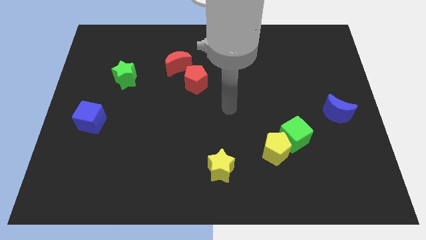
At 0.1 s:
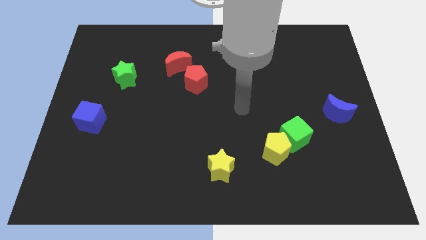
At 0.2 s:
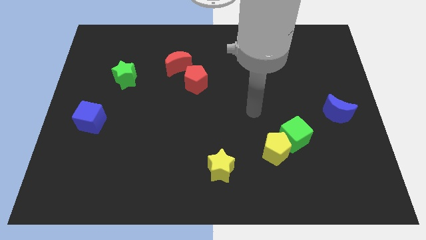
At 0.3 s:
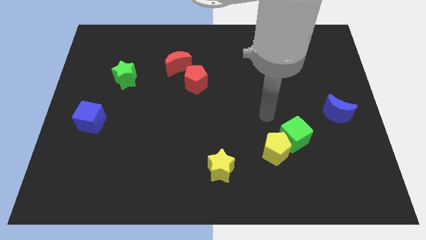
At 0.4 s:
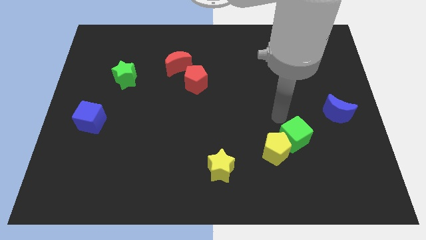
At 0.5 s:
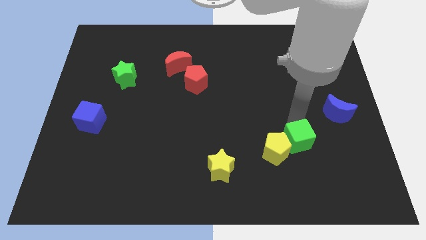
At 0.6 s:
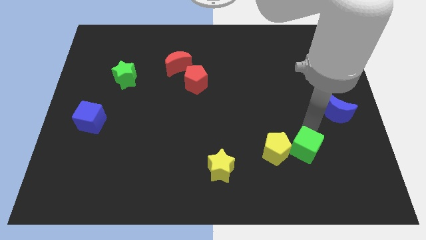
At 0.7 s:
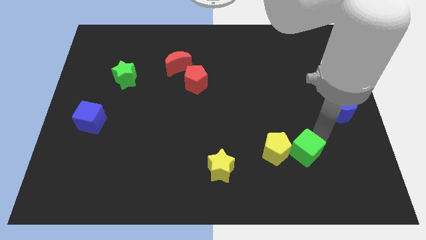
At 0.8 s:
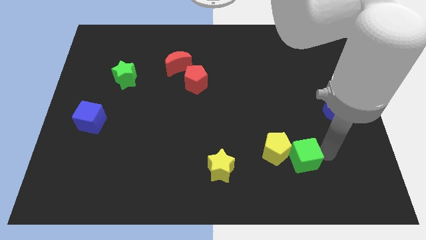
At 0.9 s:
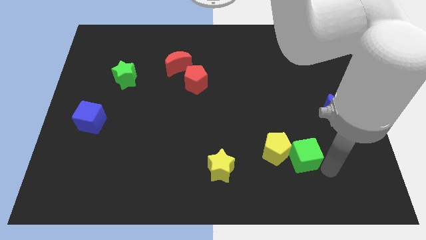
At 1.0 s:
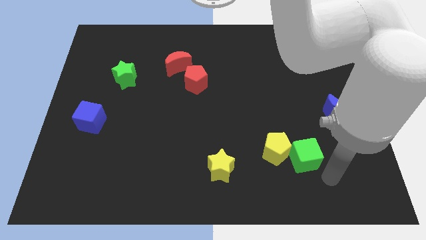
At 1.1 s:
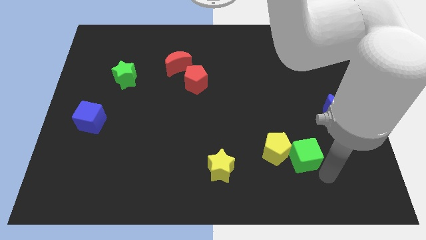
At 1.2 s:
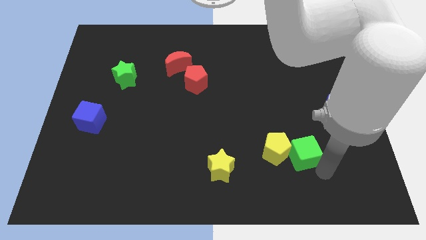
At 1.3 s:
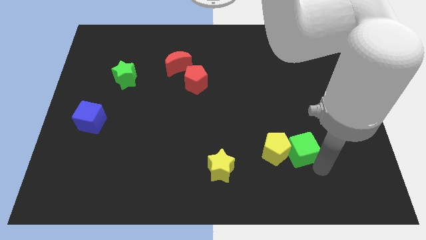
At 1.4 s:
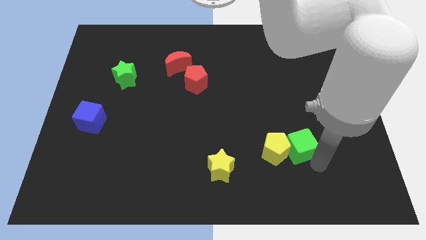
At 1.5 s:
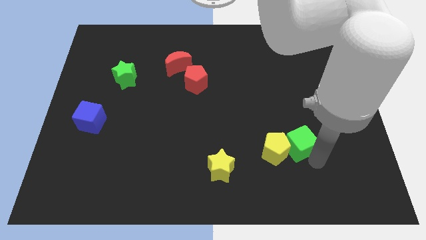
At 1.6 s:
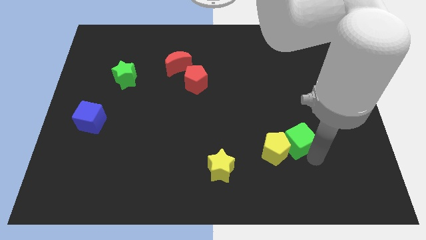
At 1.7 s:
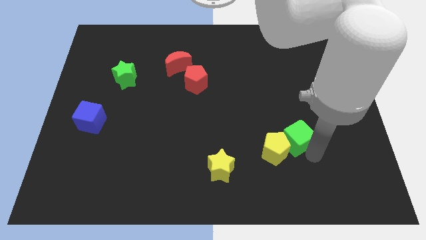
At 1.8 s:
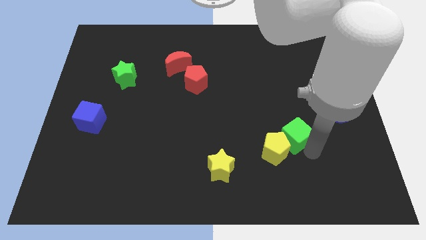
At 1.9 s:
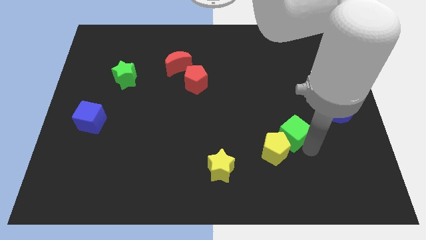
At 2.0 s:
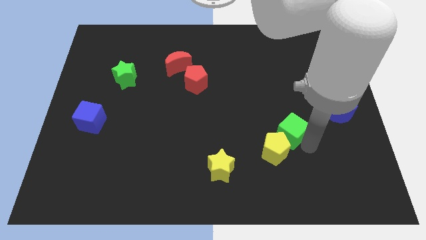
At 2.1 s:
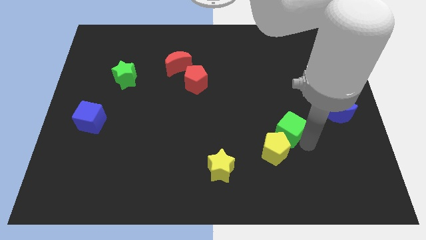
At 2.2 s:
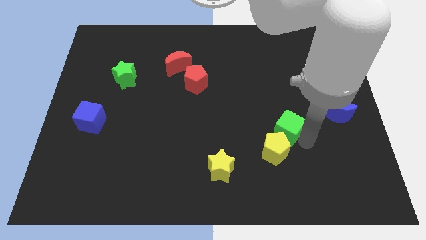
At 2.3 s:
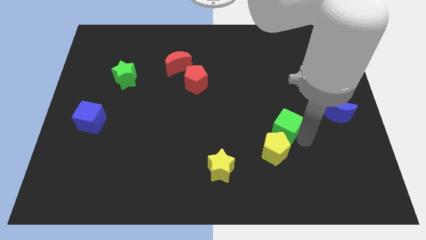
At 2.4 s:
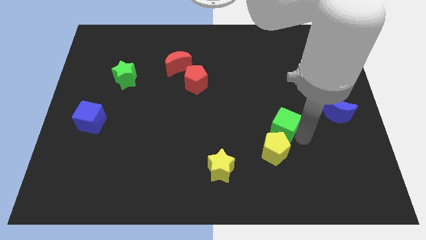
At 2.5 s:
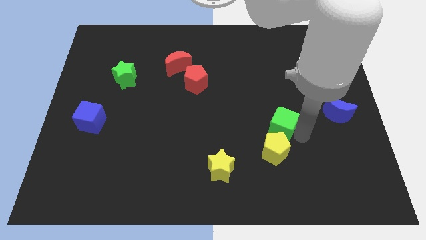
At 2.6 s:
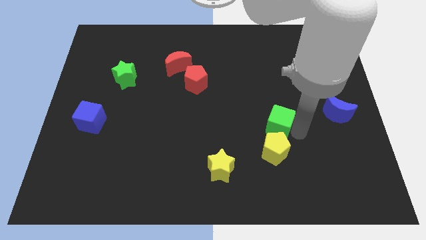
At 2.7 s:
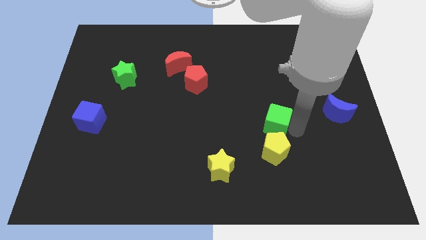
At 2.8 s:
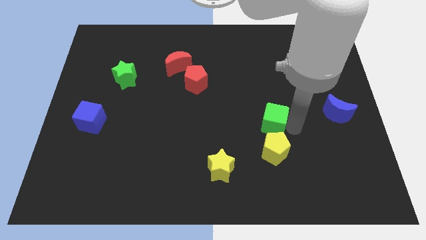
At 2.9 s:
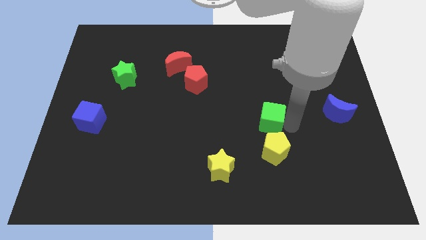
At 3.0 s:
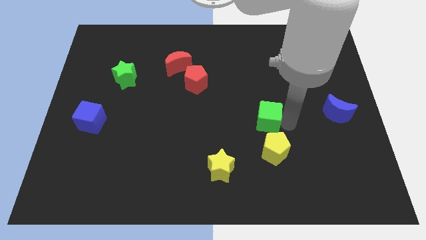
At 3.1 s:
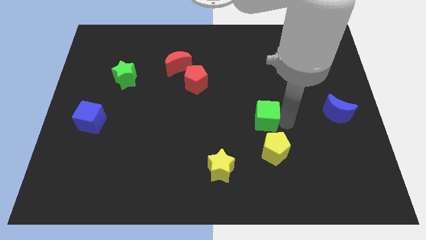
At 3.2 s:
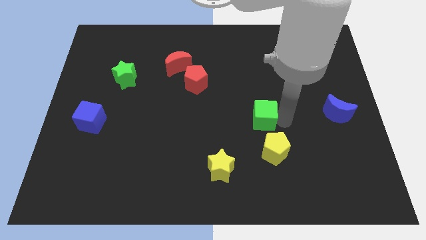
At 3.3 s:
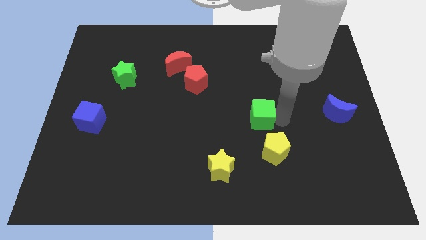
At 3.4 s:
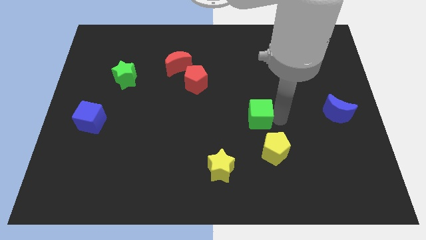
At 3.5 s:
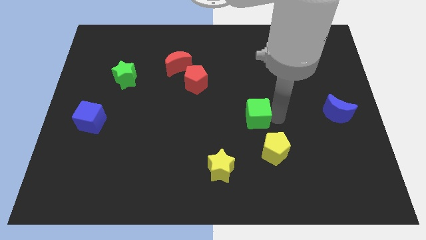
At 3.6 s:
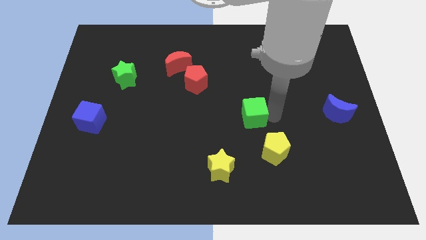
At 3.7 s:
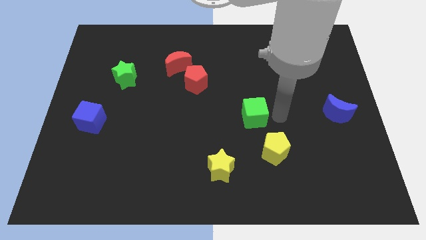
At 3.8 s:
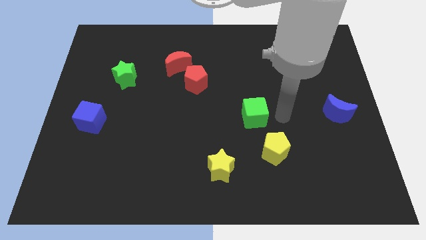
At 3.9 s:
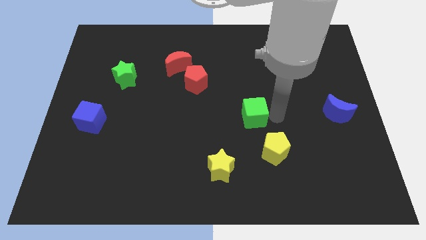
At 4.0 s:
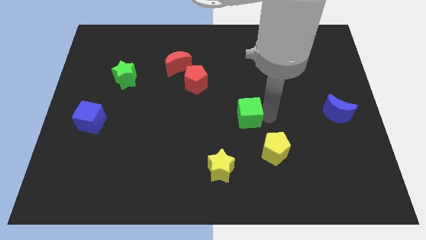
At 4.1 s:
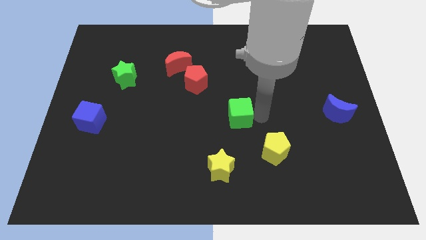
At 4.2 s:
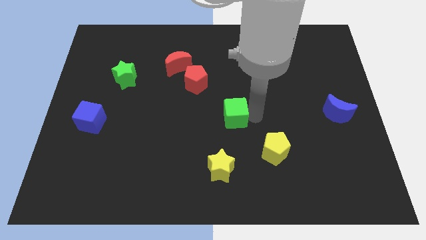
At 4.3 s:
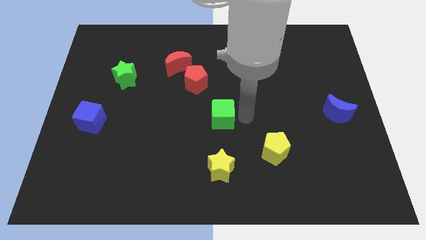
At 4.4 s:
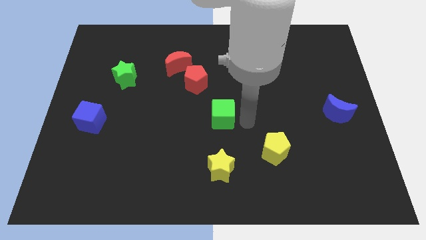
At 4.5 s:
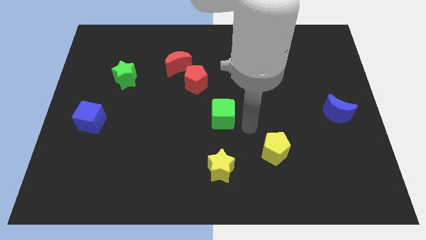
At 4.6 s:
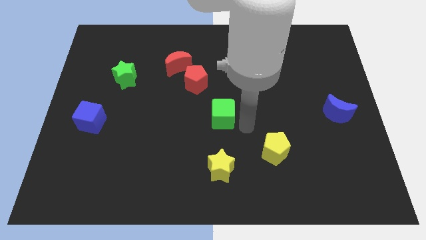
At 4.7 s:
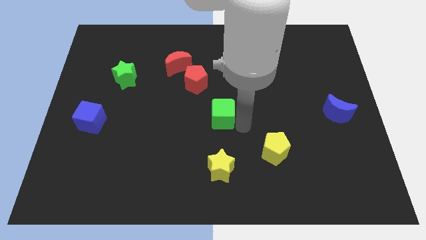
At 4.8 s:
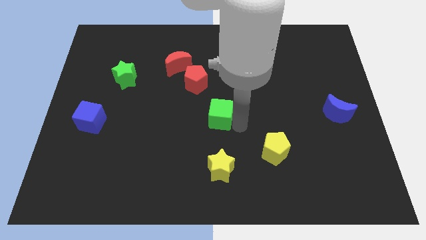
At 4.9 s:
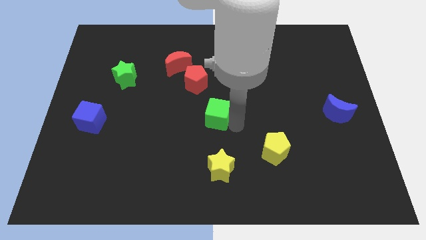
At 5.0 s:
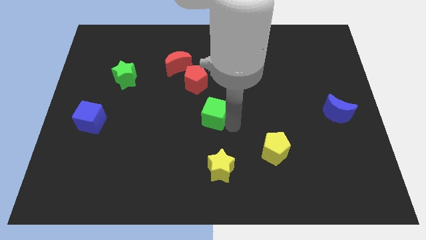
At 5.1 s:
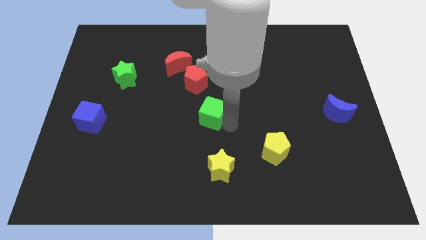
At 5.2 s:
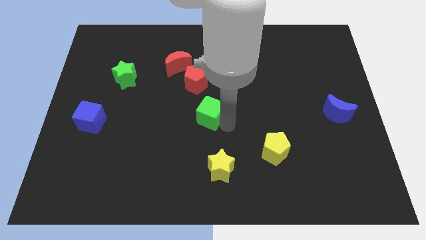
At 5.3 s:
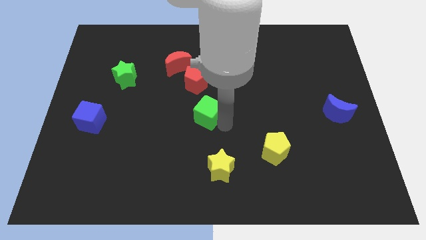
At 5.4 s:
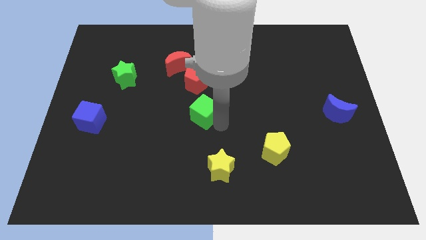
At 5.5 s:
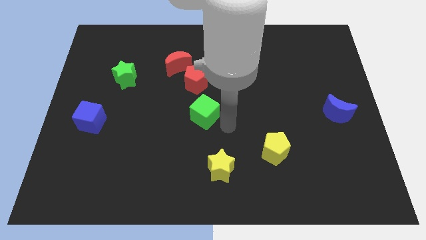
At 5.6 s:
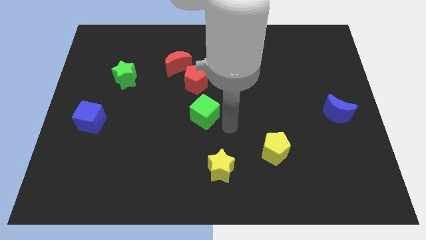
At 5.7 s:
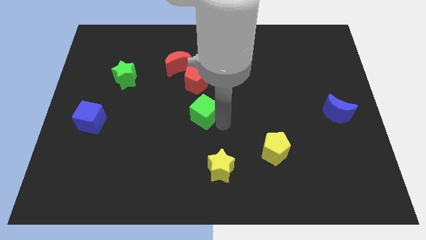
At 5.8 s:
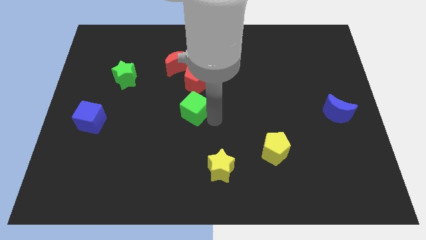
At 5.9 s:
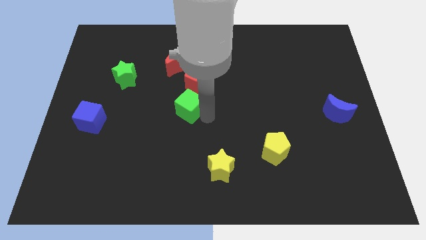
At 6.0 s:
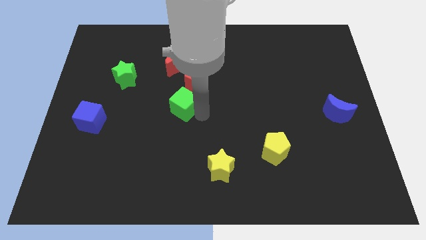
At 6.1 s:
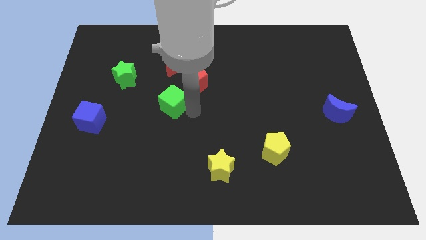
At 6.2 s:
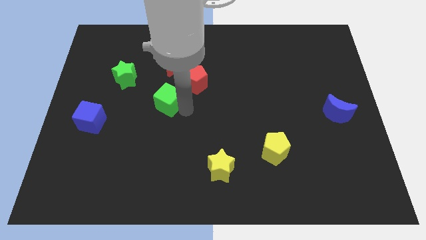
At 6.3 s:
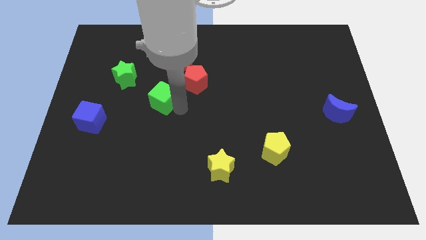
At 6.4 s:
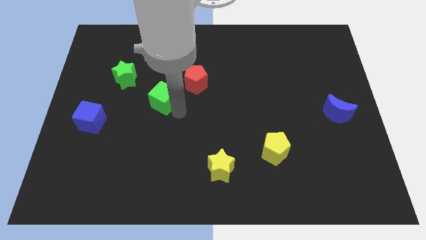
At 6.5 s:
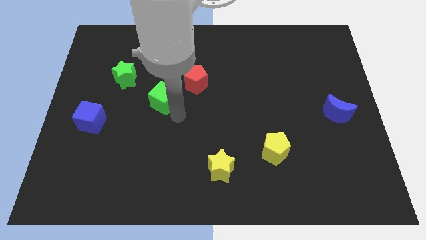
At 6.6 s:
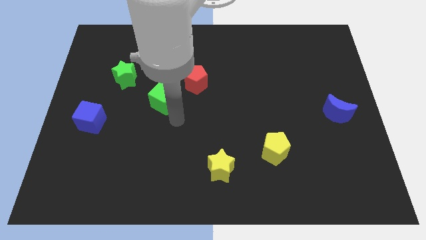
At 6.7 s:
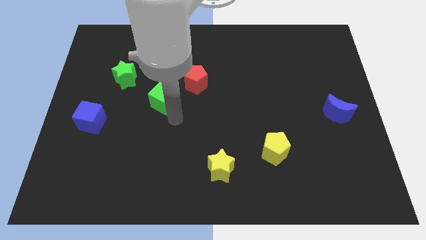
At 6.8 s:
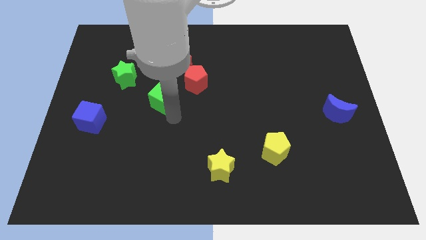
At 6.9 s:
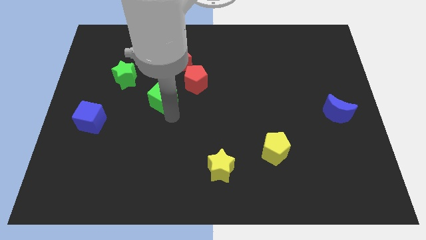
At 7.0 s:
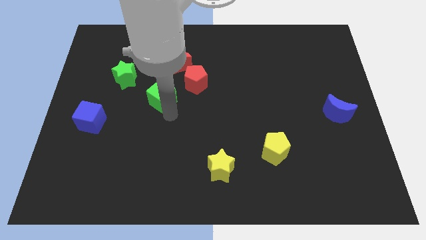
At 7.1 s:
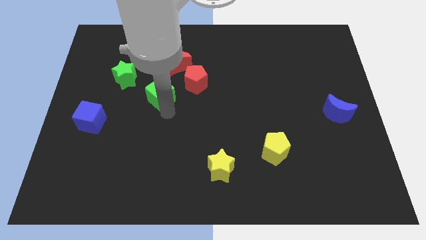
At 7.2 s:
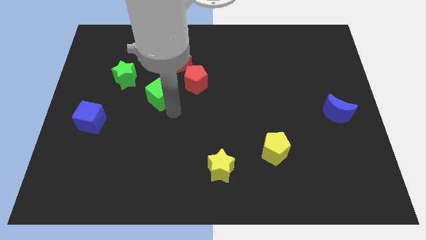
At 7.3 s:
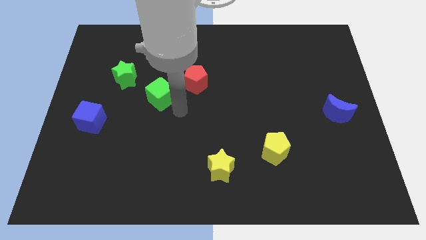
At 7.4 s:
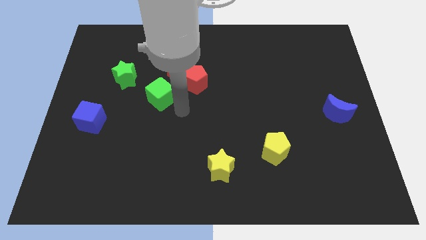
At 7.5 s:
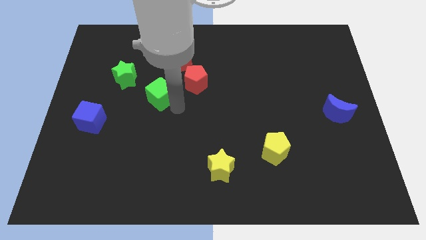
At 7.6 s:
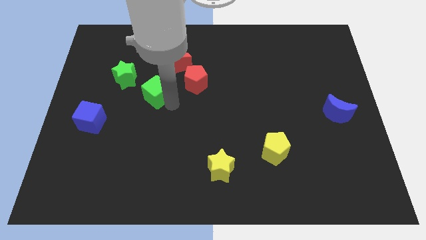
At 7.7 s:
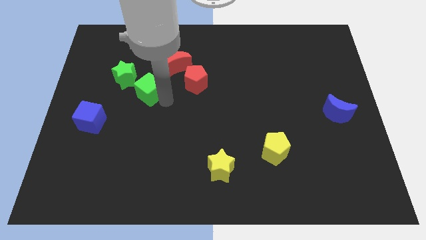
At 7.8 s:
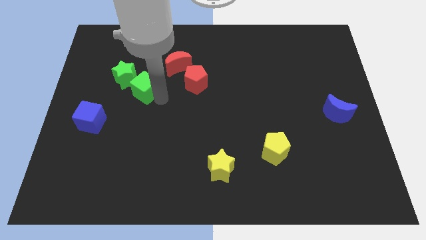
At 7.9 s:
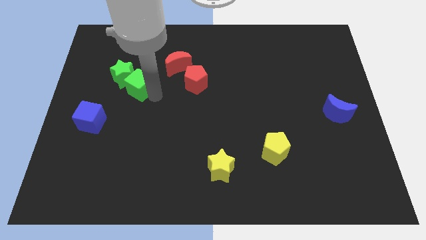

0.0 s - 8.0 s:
move the green cube next to the green star
